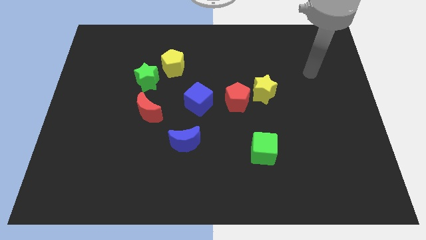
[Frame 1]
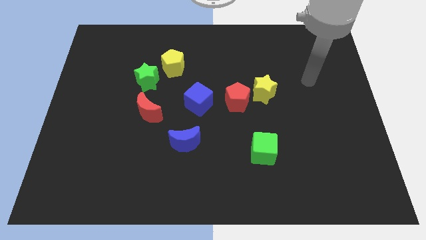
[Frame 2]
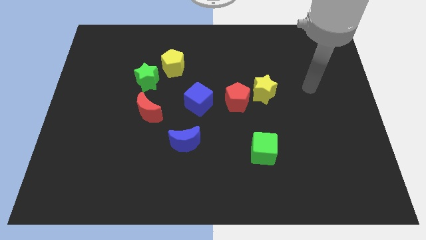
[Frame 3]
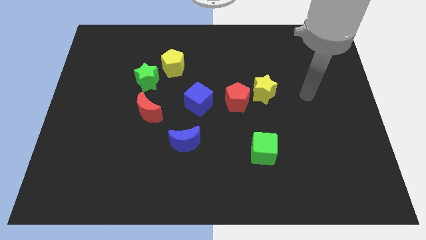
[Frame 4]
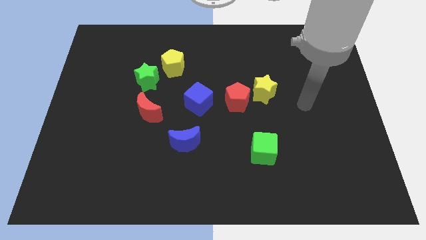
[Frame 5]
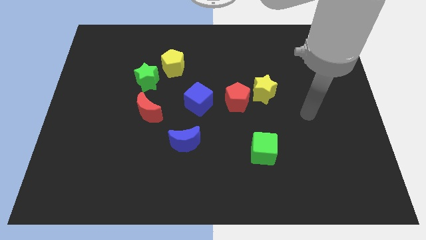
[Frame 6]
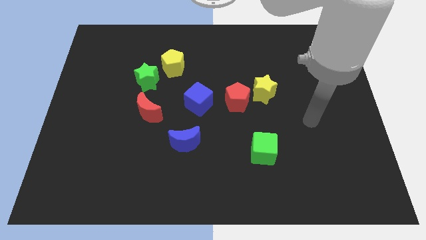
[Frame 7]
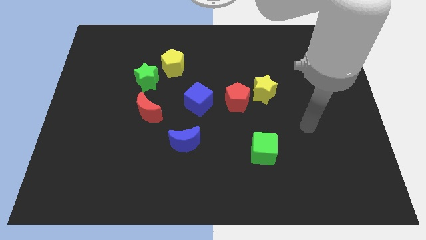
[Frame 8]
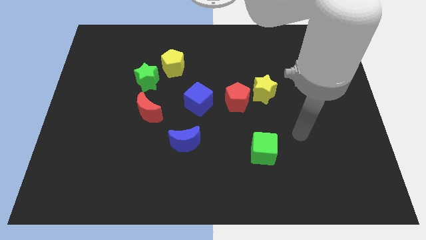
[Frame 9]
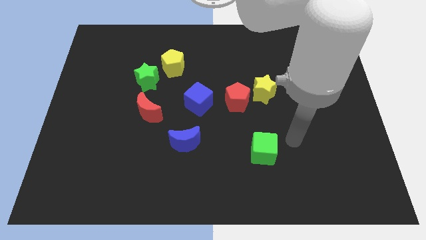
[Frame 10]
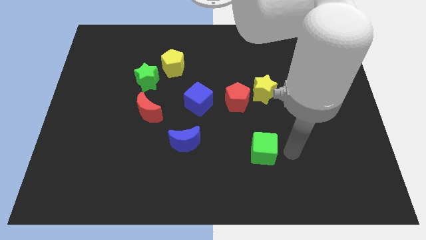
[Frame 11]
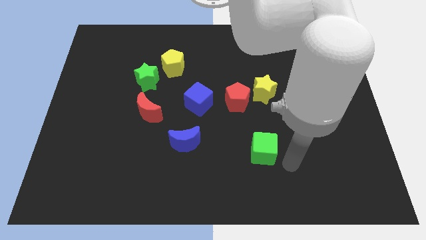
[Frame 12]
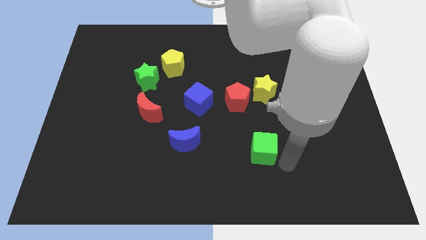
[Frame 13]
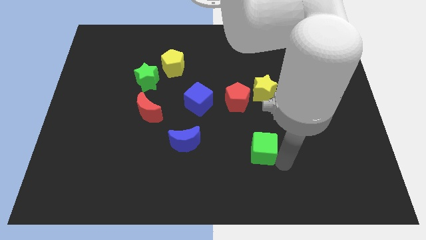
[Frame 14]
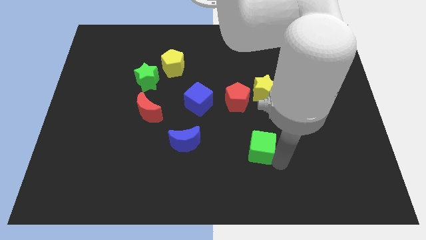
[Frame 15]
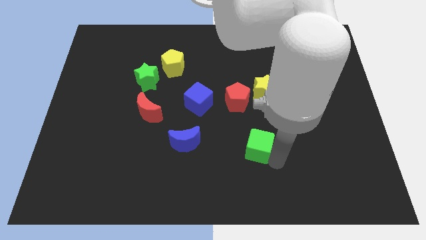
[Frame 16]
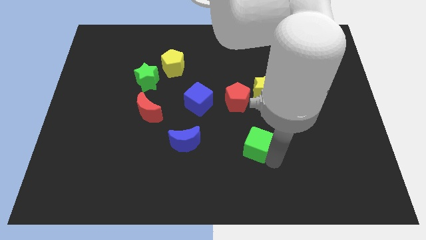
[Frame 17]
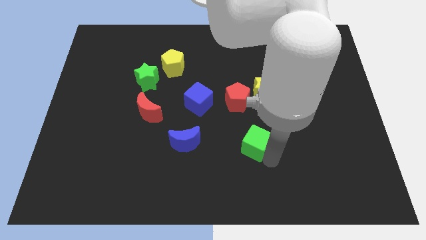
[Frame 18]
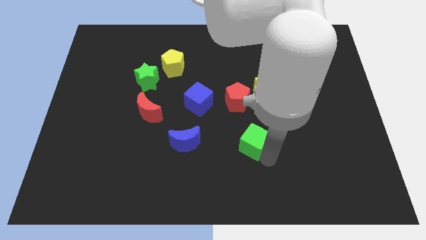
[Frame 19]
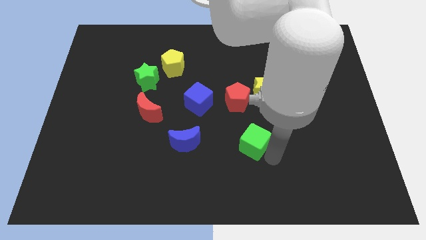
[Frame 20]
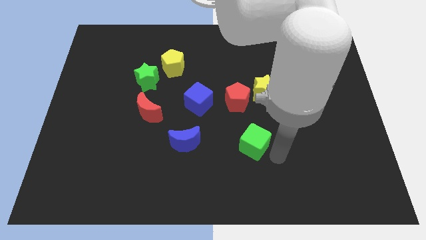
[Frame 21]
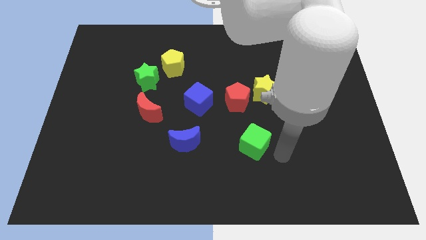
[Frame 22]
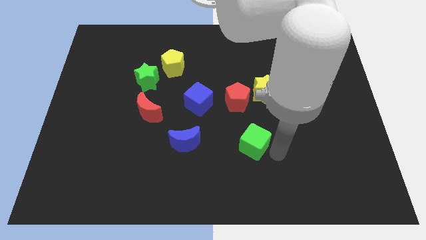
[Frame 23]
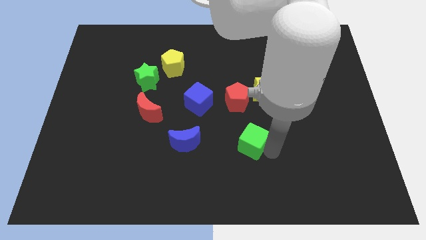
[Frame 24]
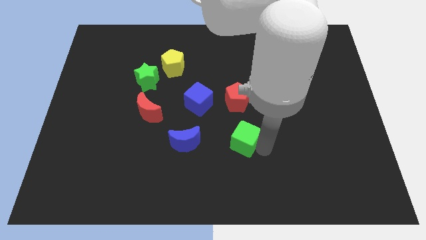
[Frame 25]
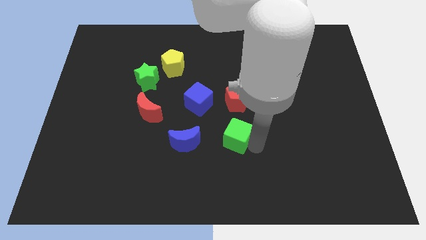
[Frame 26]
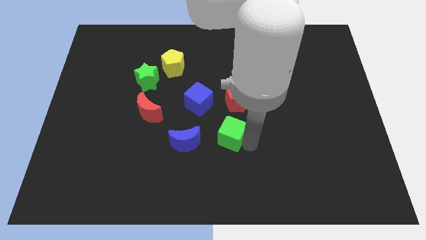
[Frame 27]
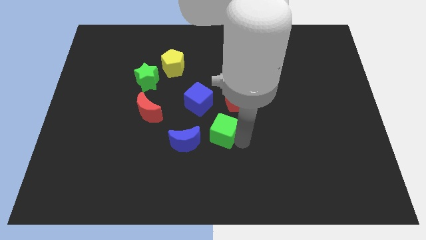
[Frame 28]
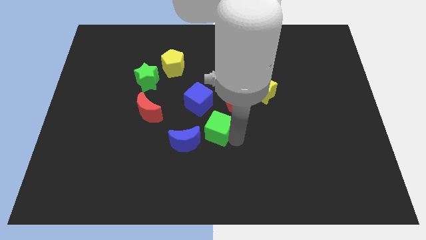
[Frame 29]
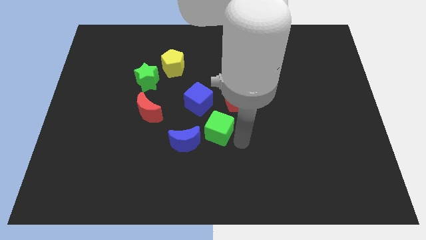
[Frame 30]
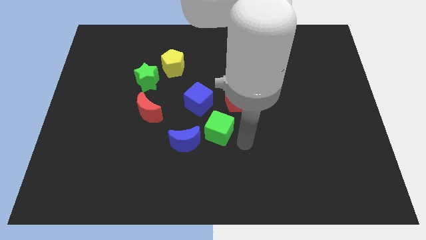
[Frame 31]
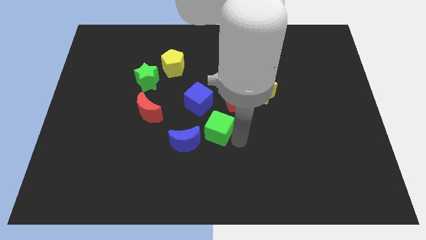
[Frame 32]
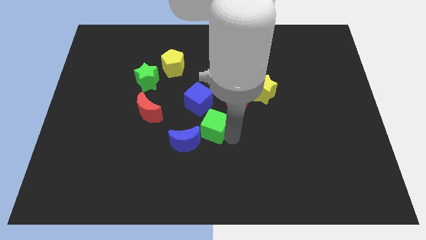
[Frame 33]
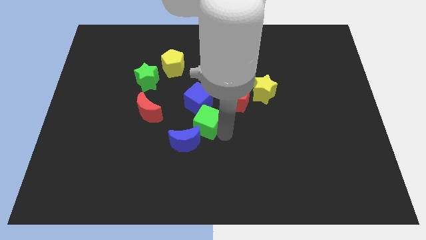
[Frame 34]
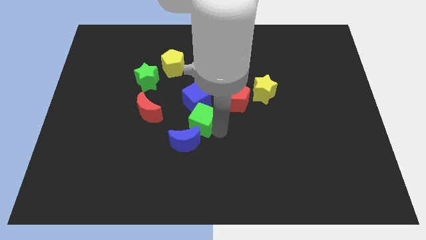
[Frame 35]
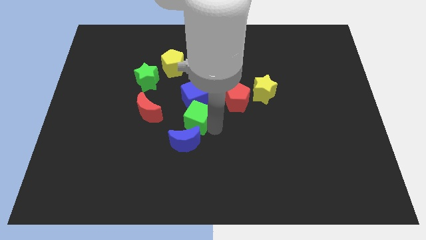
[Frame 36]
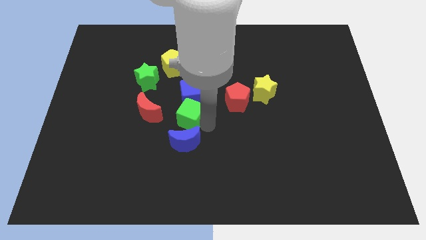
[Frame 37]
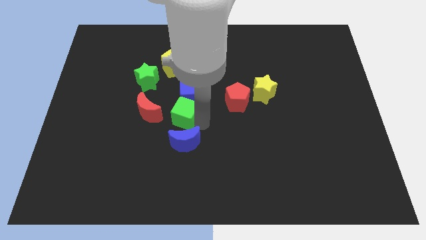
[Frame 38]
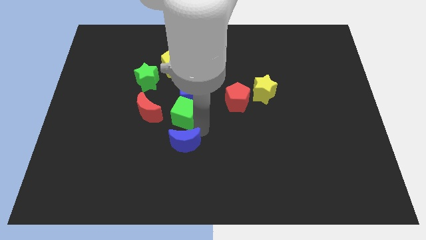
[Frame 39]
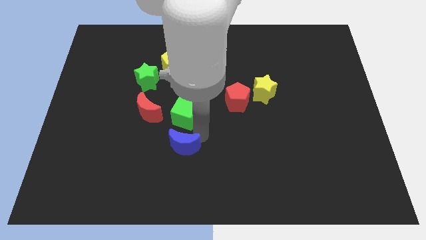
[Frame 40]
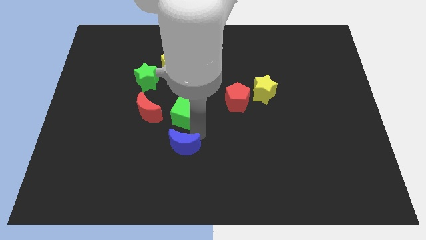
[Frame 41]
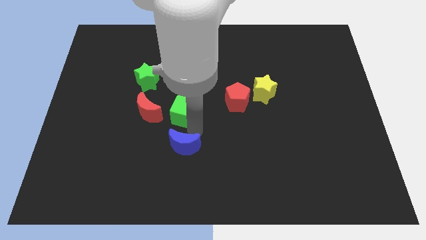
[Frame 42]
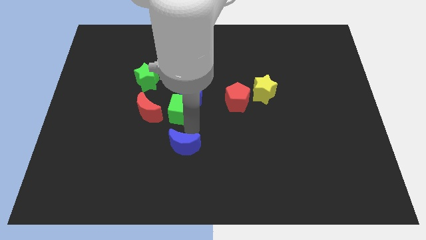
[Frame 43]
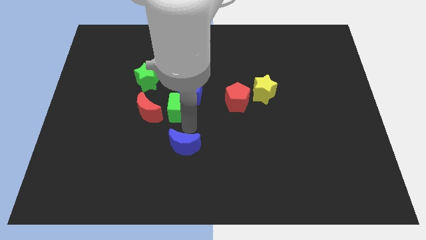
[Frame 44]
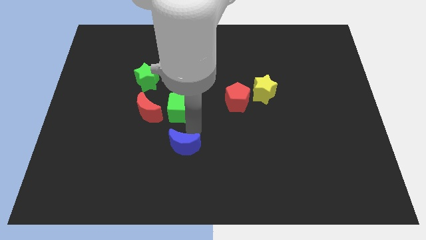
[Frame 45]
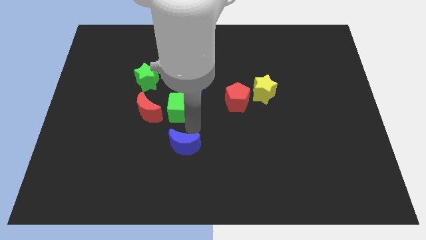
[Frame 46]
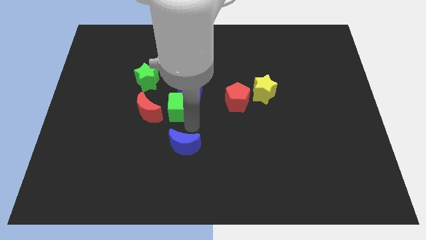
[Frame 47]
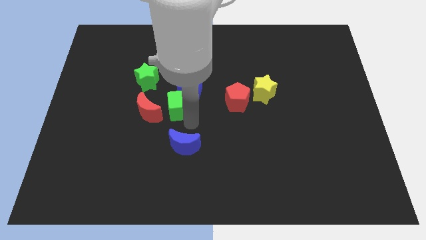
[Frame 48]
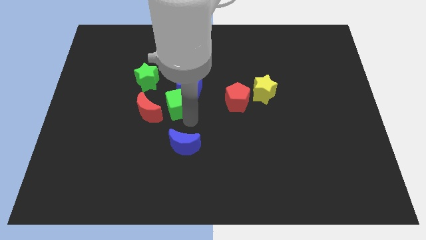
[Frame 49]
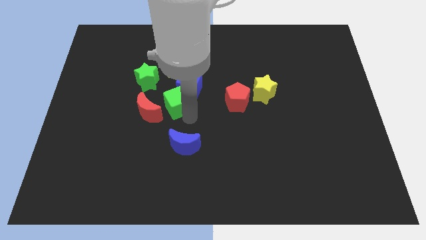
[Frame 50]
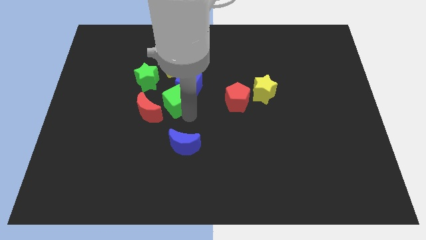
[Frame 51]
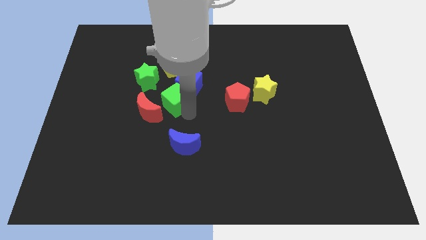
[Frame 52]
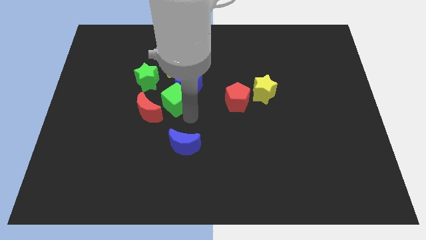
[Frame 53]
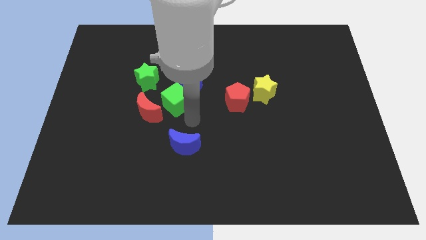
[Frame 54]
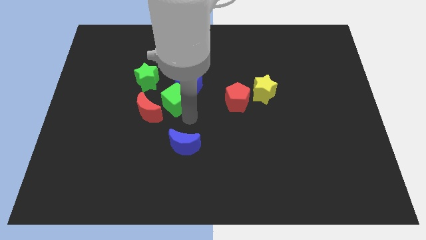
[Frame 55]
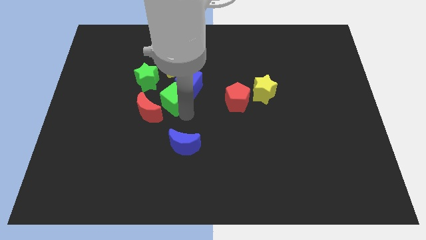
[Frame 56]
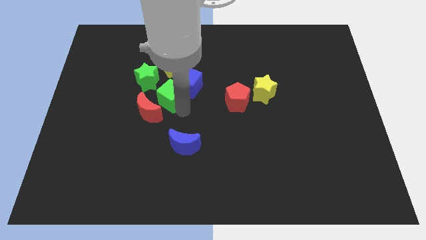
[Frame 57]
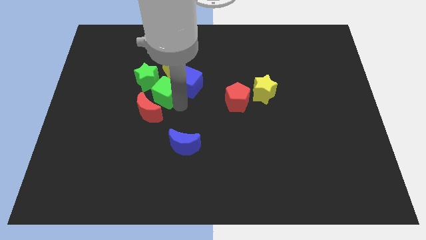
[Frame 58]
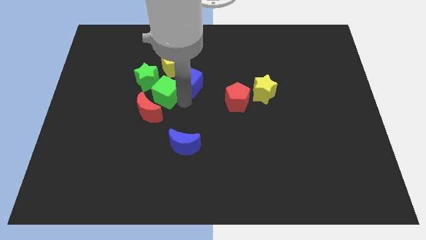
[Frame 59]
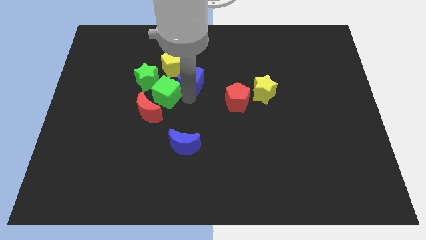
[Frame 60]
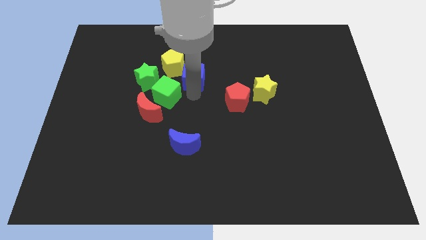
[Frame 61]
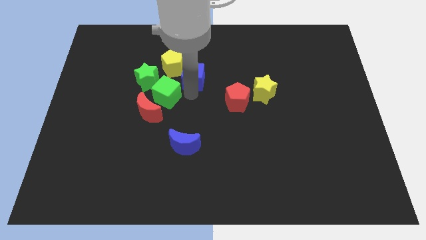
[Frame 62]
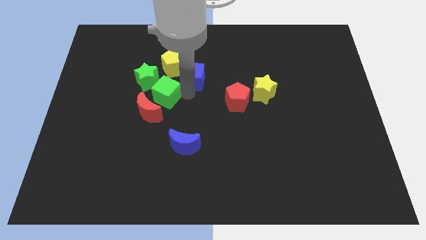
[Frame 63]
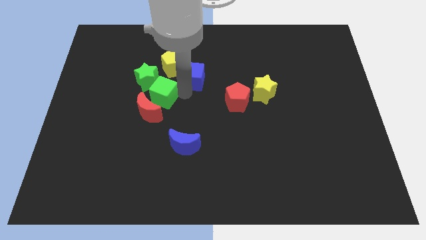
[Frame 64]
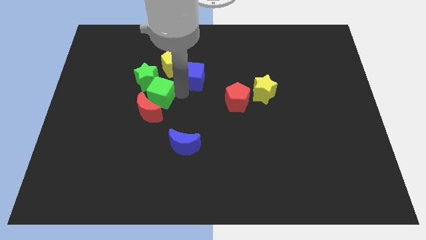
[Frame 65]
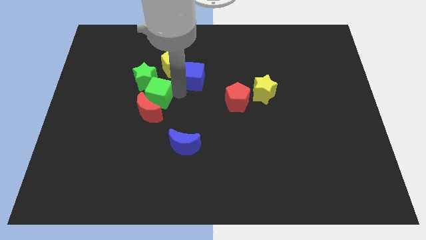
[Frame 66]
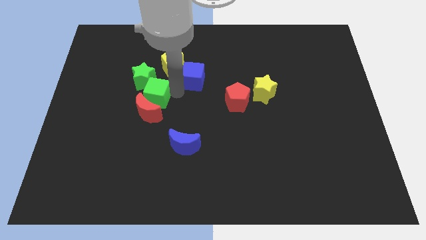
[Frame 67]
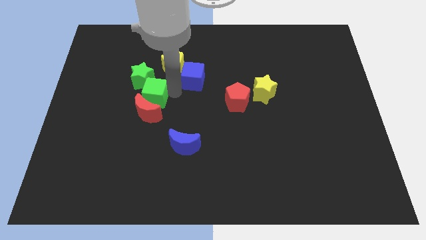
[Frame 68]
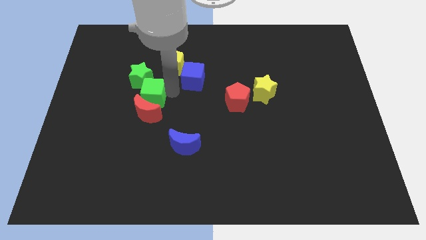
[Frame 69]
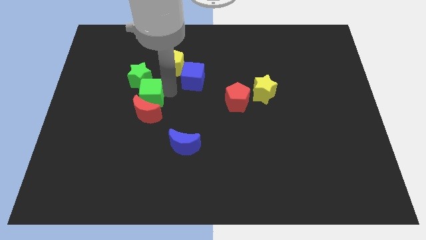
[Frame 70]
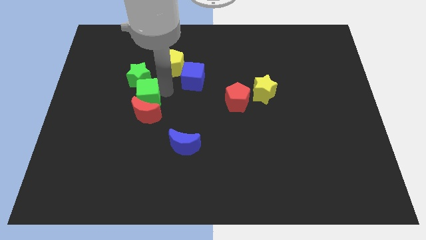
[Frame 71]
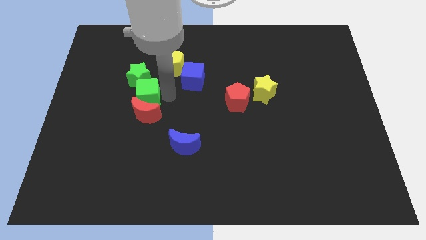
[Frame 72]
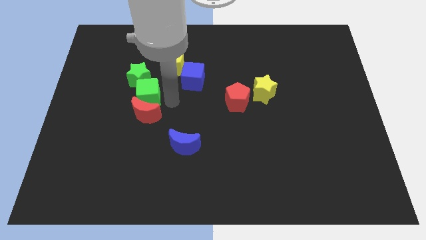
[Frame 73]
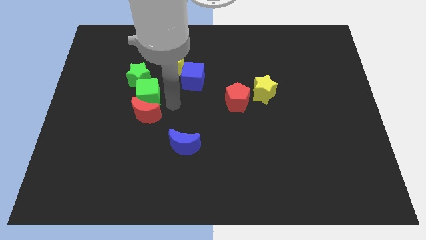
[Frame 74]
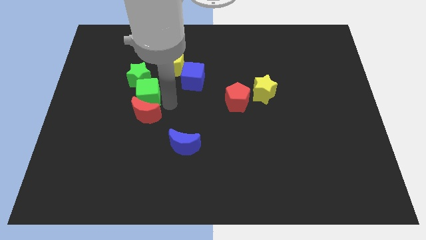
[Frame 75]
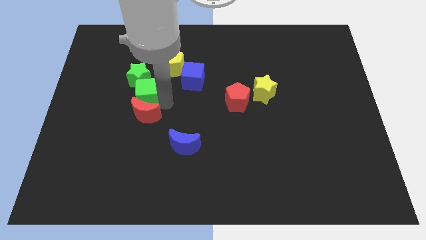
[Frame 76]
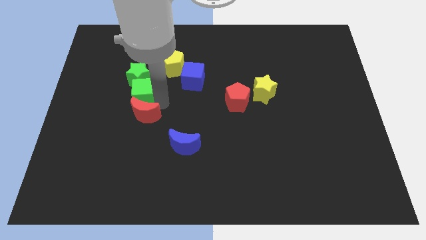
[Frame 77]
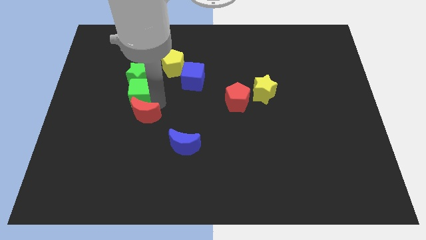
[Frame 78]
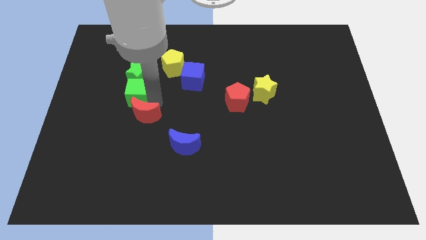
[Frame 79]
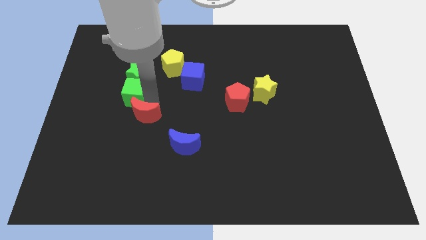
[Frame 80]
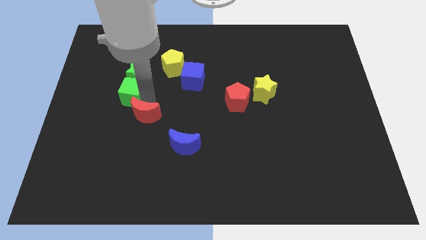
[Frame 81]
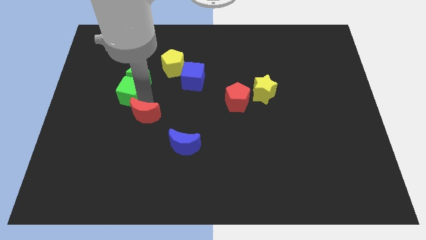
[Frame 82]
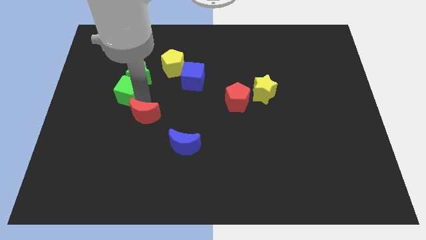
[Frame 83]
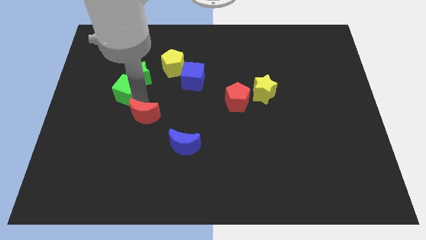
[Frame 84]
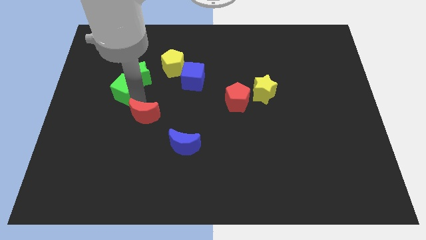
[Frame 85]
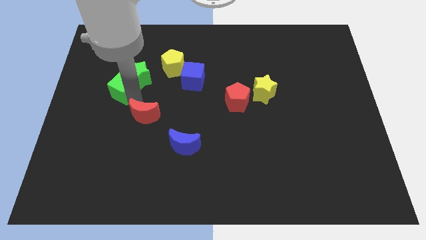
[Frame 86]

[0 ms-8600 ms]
move the green cube to the left of the green star
